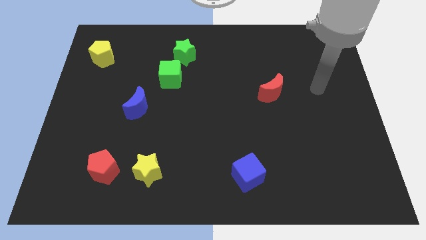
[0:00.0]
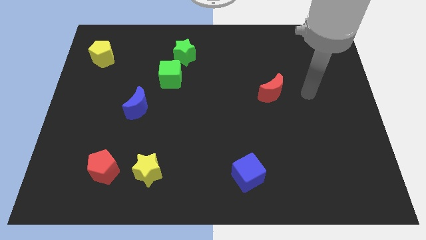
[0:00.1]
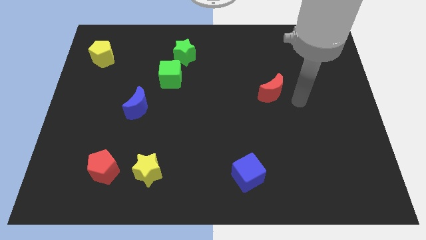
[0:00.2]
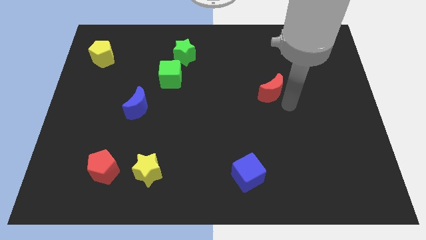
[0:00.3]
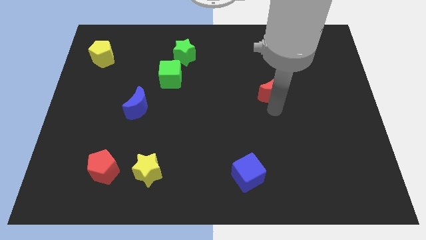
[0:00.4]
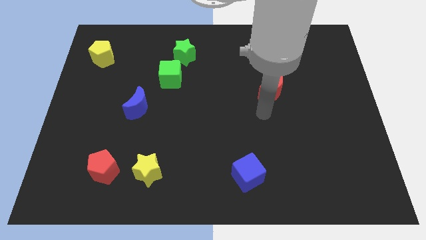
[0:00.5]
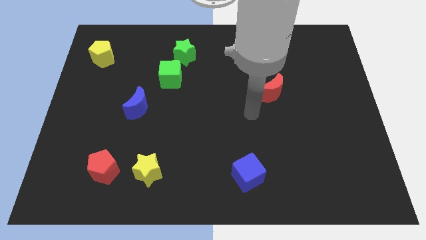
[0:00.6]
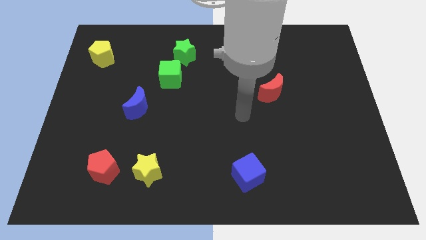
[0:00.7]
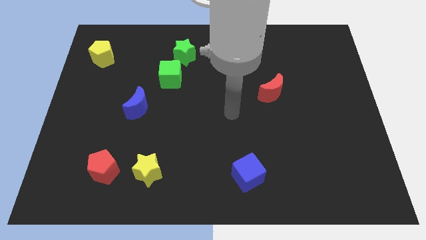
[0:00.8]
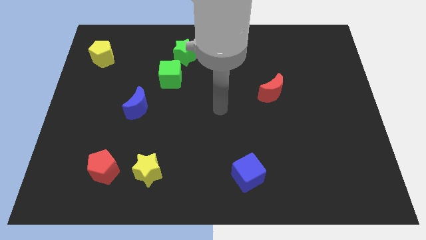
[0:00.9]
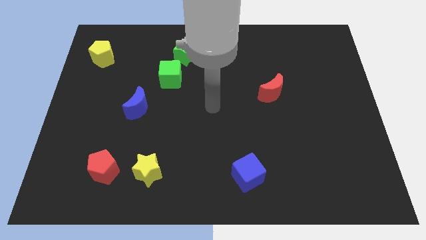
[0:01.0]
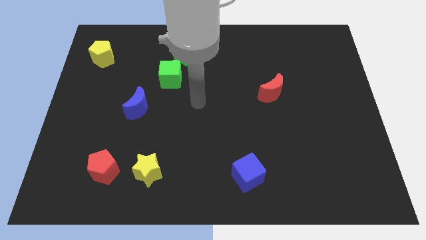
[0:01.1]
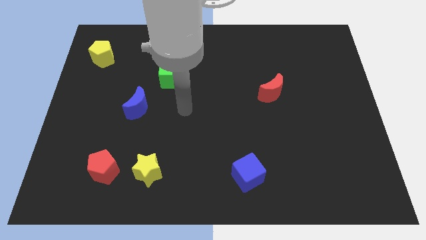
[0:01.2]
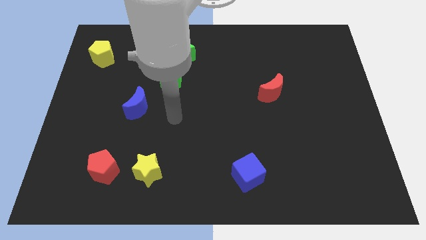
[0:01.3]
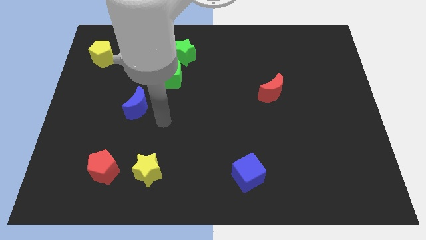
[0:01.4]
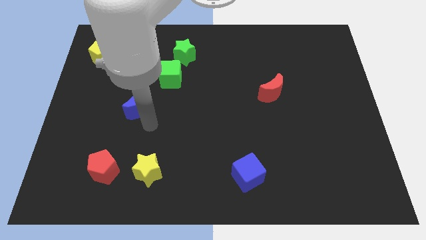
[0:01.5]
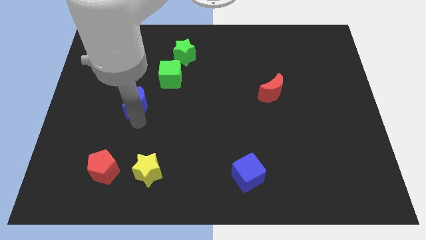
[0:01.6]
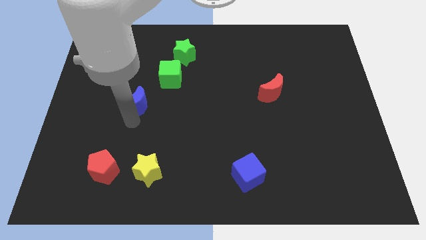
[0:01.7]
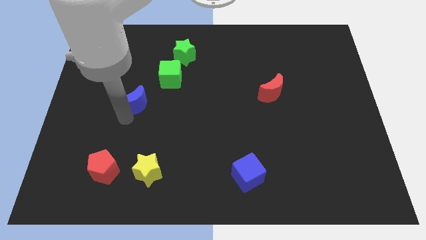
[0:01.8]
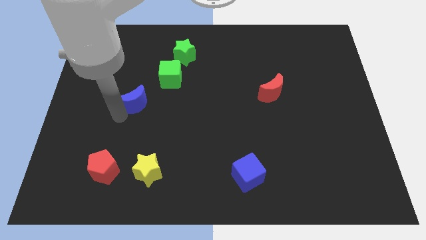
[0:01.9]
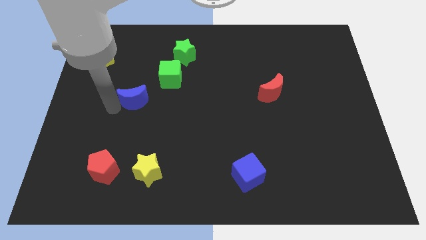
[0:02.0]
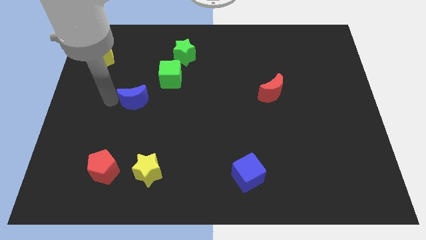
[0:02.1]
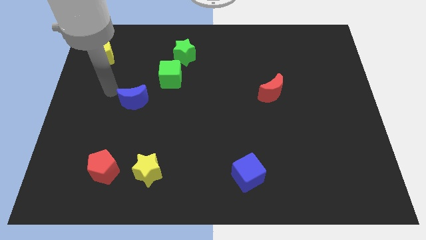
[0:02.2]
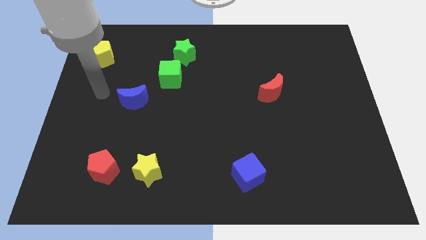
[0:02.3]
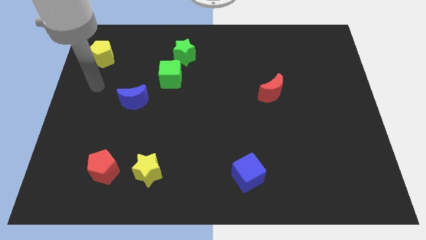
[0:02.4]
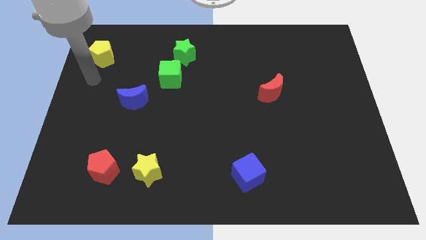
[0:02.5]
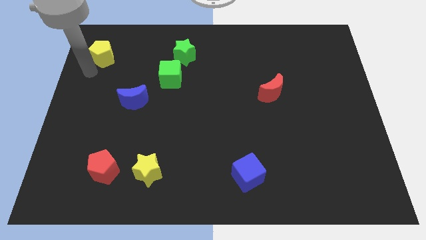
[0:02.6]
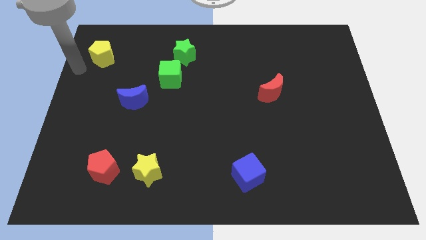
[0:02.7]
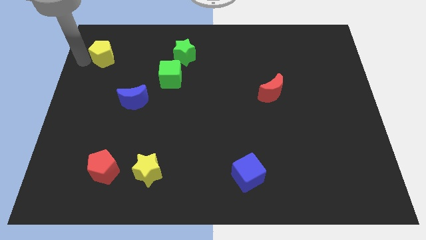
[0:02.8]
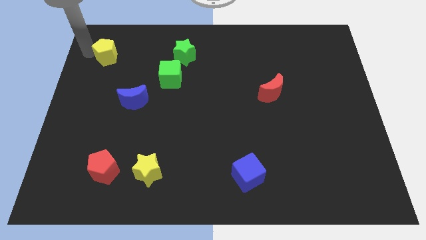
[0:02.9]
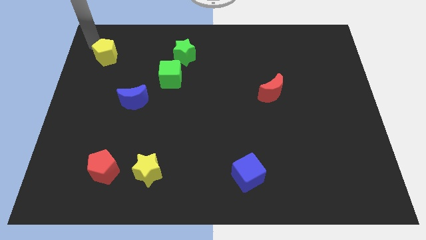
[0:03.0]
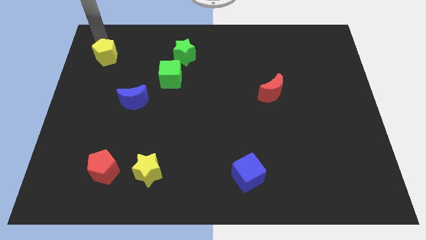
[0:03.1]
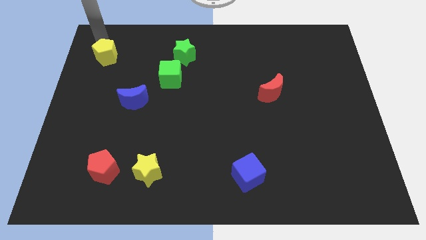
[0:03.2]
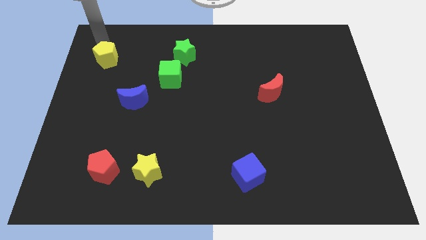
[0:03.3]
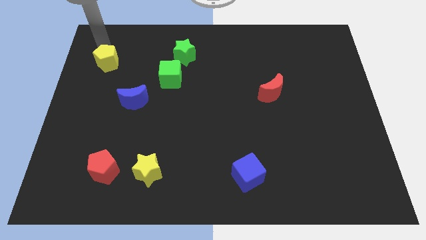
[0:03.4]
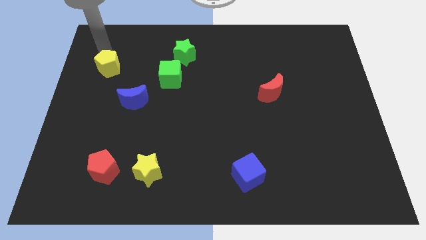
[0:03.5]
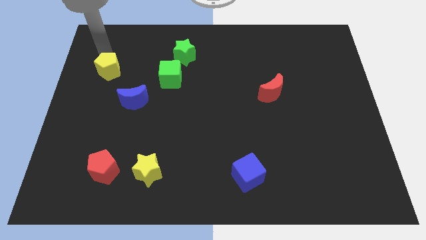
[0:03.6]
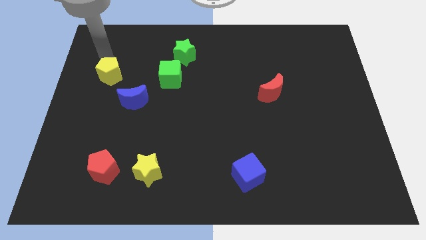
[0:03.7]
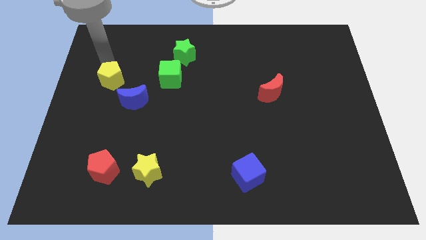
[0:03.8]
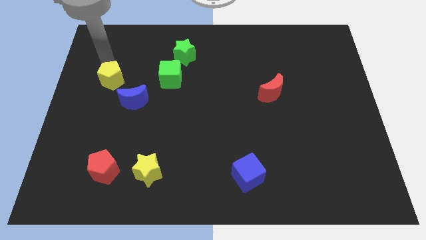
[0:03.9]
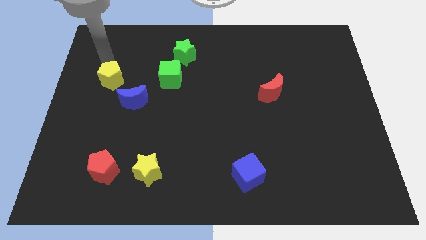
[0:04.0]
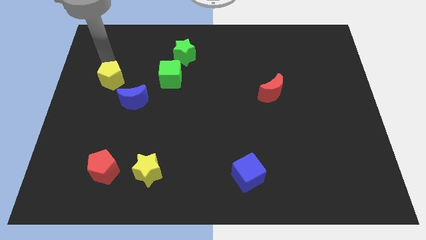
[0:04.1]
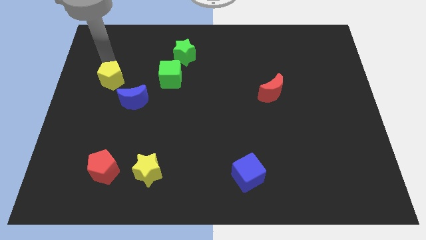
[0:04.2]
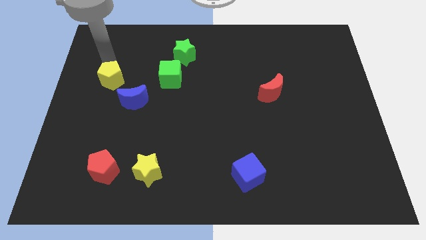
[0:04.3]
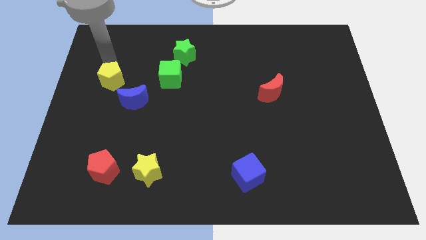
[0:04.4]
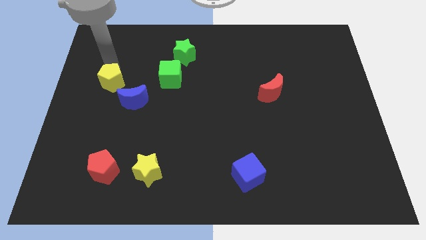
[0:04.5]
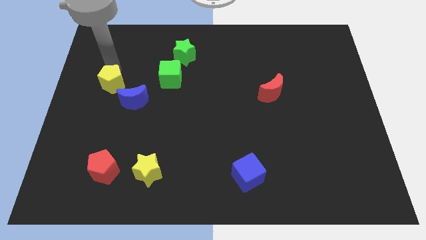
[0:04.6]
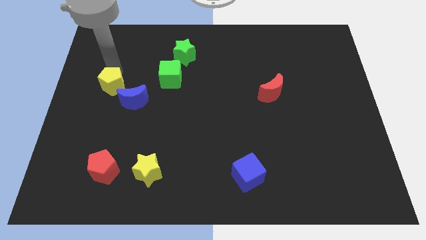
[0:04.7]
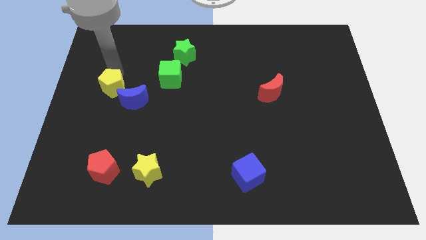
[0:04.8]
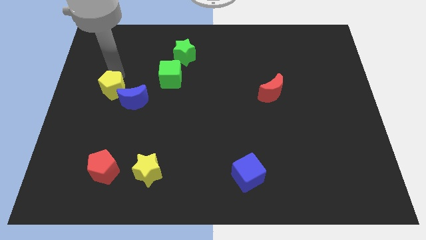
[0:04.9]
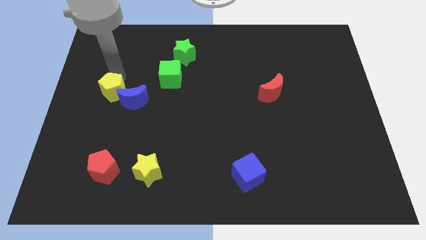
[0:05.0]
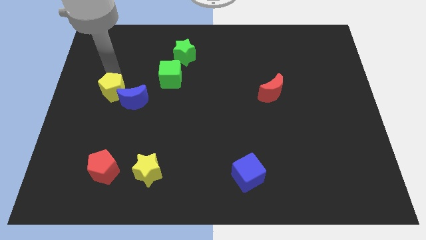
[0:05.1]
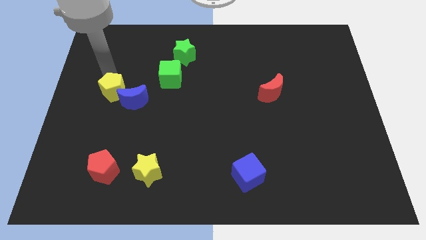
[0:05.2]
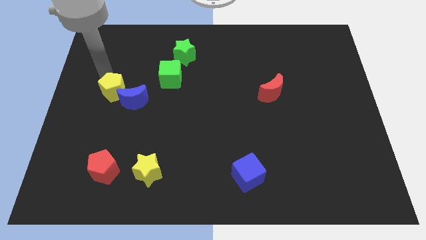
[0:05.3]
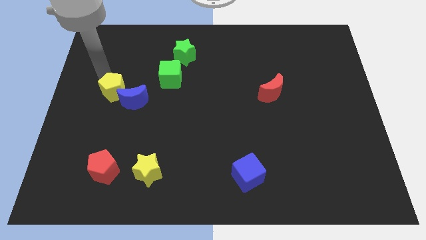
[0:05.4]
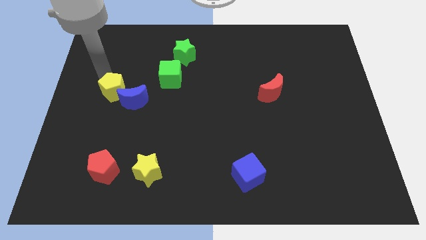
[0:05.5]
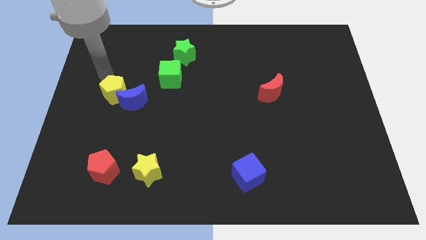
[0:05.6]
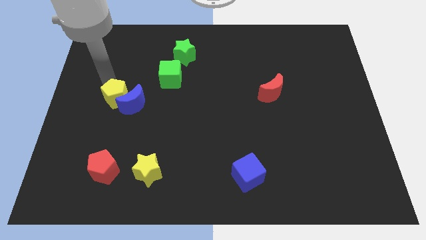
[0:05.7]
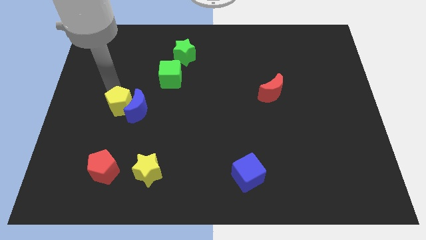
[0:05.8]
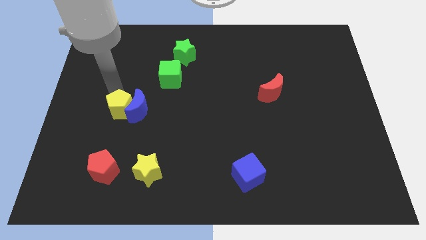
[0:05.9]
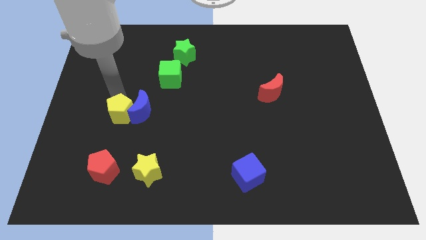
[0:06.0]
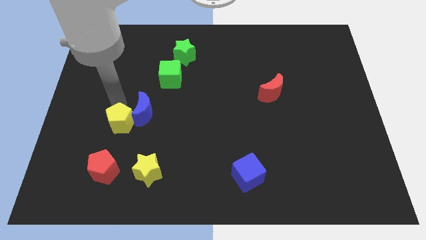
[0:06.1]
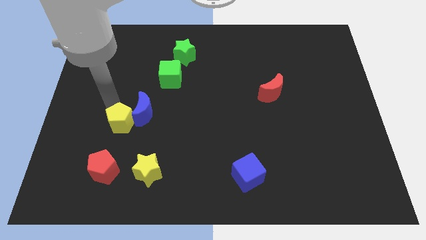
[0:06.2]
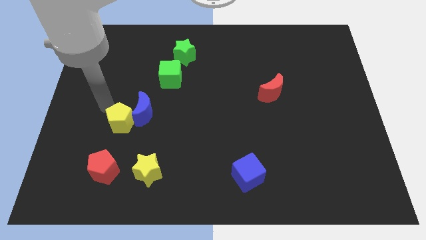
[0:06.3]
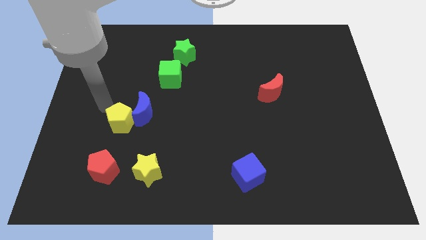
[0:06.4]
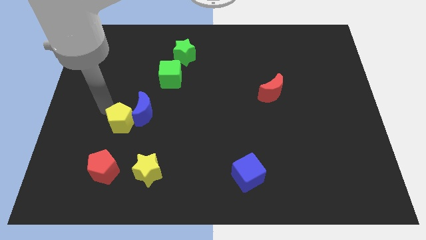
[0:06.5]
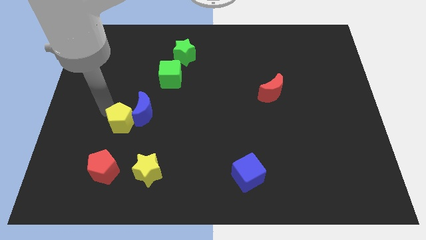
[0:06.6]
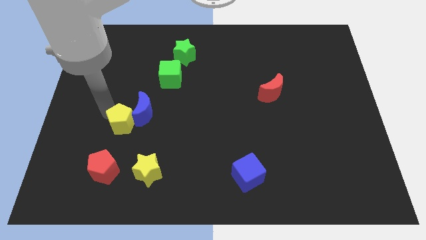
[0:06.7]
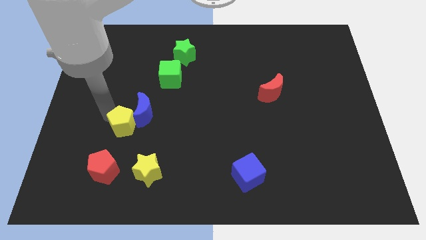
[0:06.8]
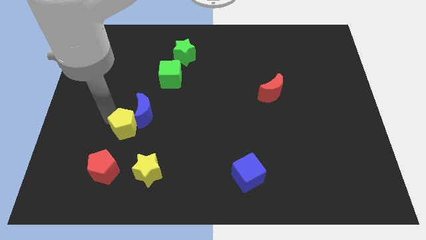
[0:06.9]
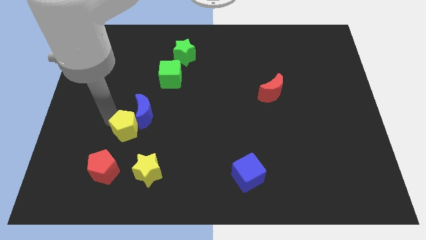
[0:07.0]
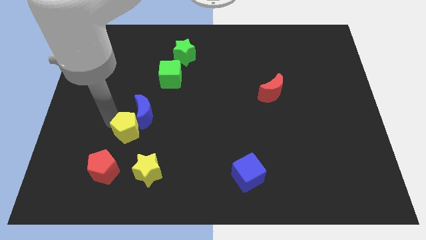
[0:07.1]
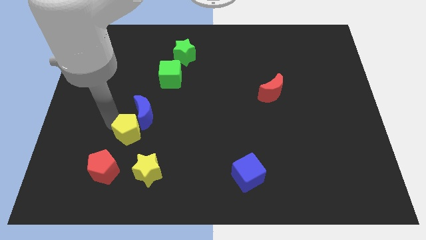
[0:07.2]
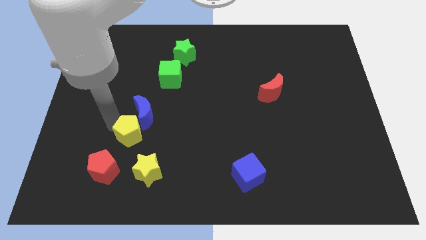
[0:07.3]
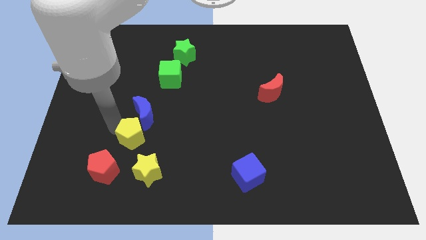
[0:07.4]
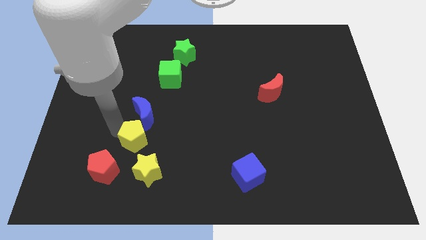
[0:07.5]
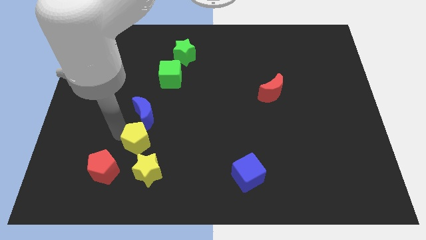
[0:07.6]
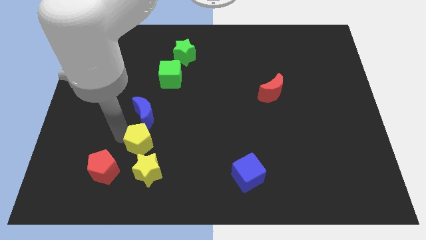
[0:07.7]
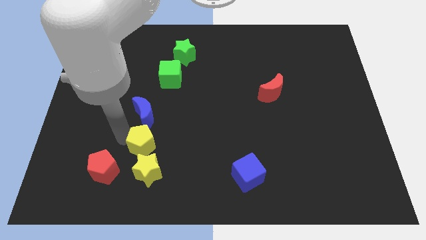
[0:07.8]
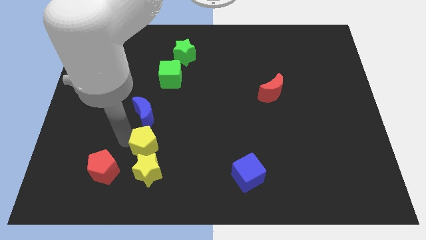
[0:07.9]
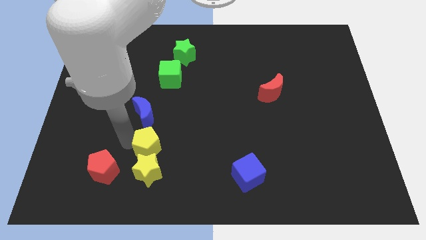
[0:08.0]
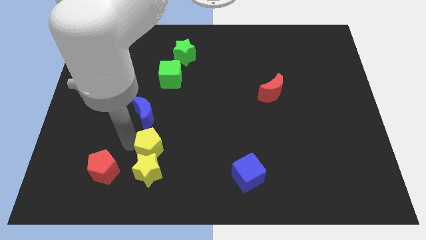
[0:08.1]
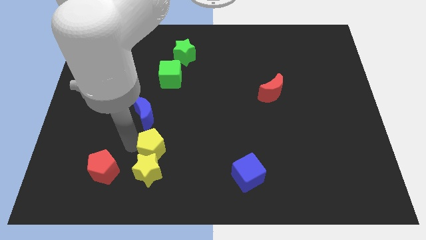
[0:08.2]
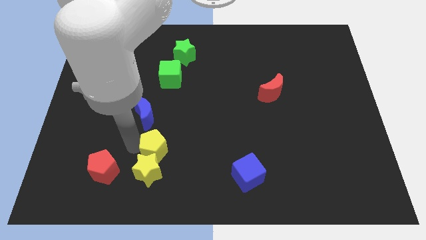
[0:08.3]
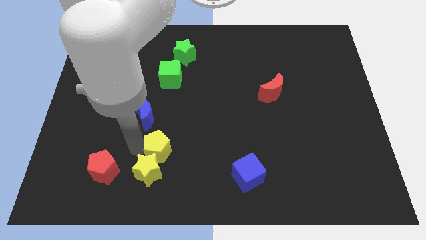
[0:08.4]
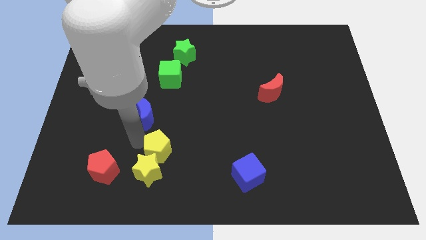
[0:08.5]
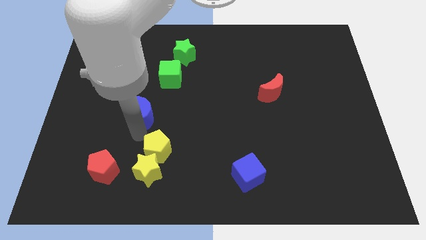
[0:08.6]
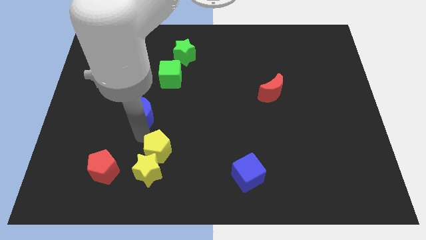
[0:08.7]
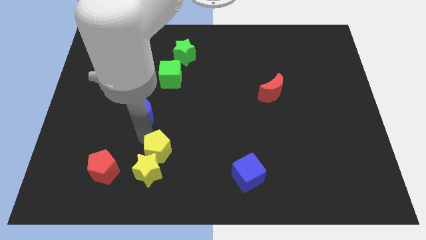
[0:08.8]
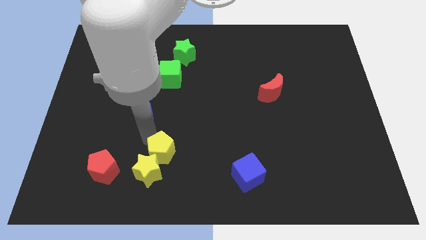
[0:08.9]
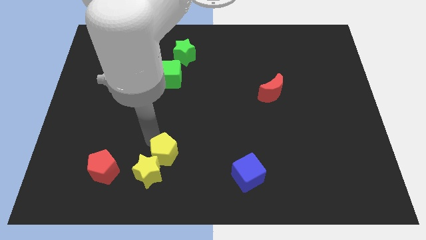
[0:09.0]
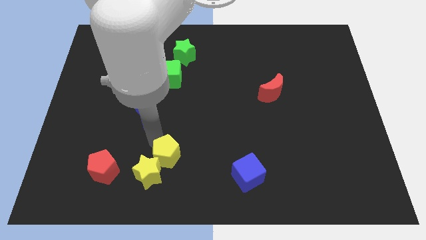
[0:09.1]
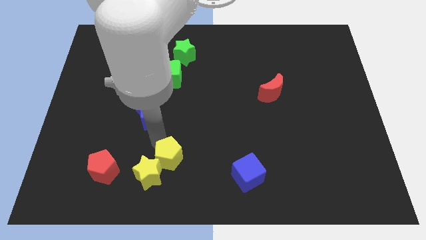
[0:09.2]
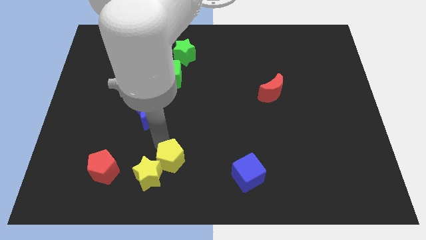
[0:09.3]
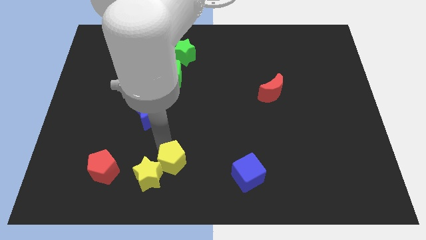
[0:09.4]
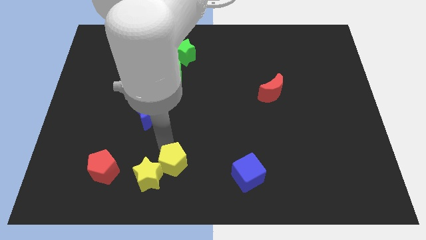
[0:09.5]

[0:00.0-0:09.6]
slide the yellow pentagon to the bottom
